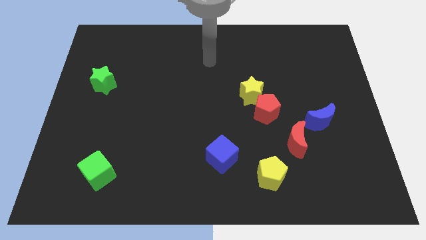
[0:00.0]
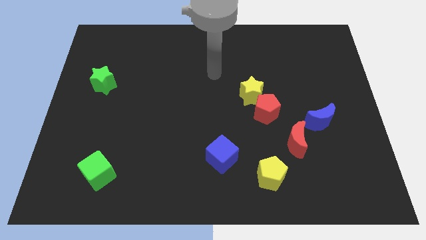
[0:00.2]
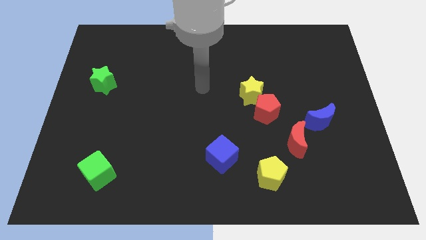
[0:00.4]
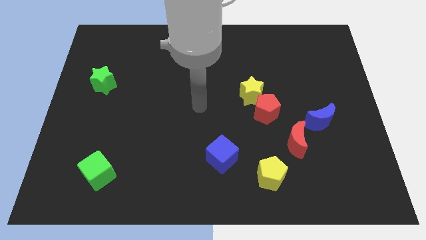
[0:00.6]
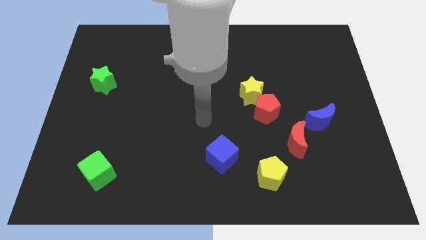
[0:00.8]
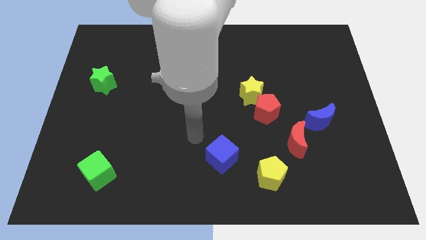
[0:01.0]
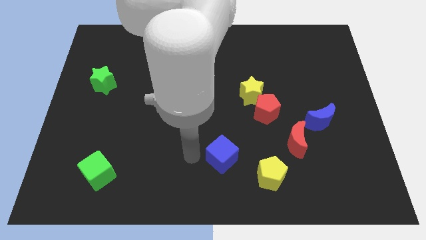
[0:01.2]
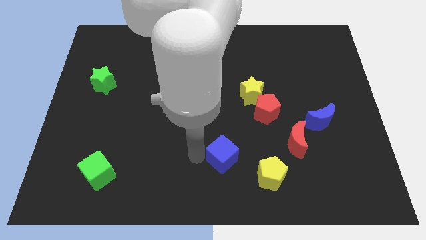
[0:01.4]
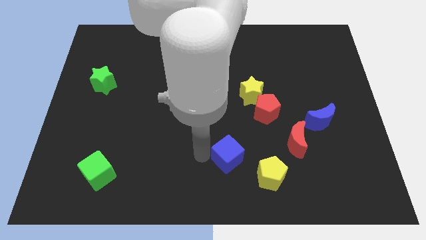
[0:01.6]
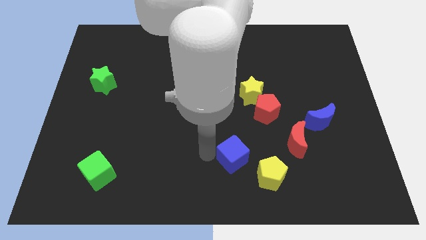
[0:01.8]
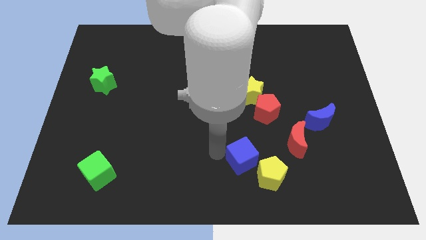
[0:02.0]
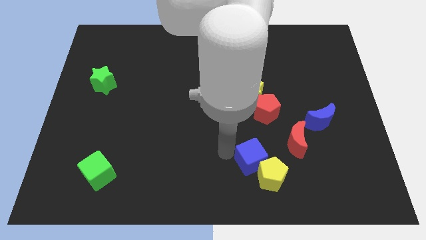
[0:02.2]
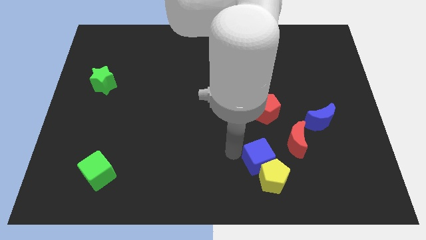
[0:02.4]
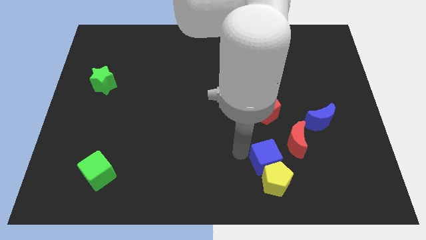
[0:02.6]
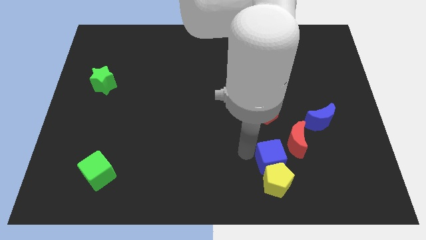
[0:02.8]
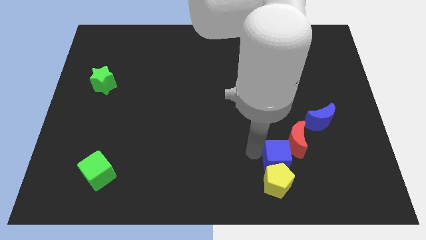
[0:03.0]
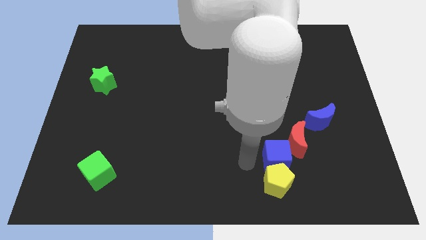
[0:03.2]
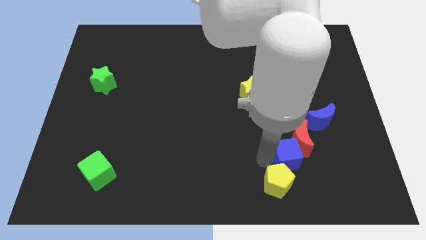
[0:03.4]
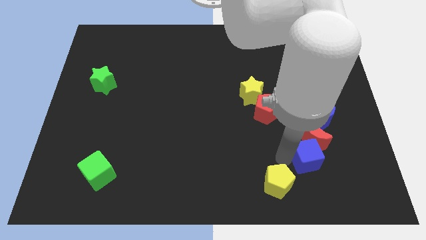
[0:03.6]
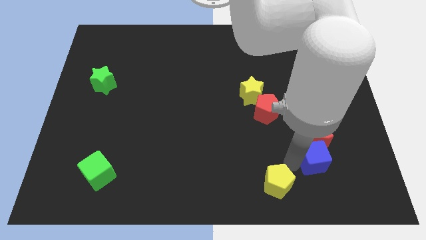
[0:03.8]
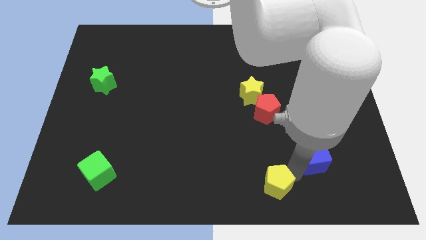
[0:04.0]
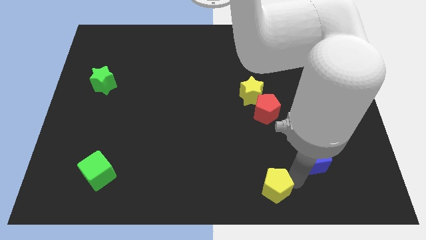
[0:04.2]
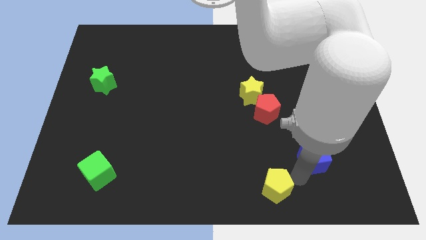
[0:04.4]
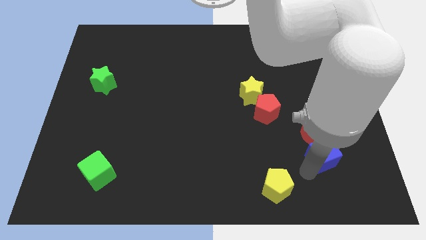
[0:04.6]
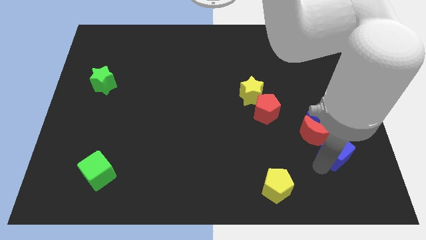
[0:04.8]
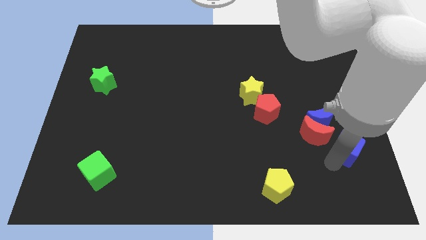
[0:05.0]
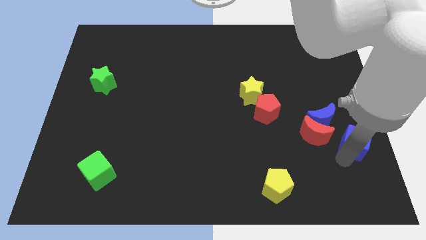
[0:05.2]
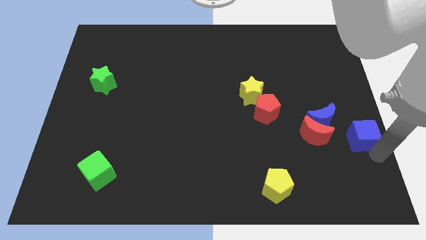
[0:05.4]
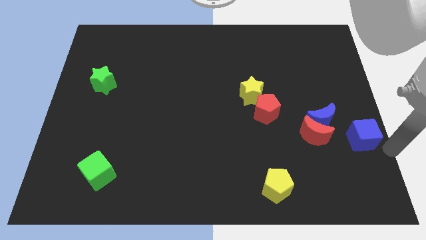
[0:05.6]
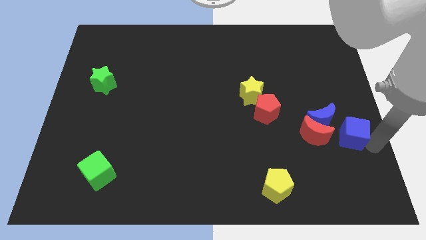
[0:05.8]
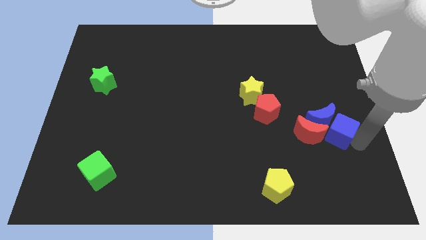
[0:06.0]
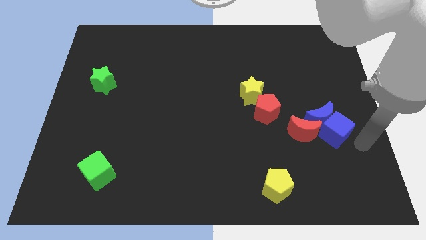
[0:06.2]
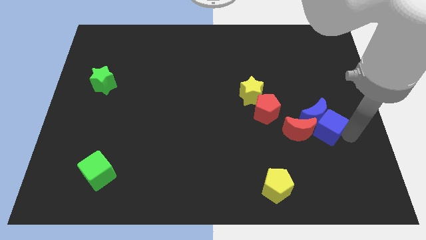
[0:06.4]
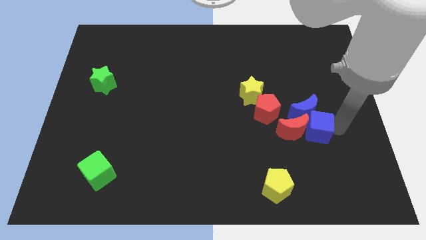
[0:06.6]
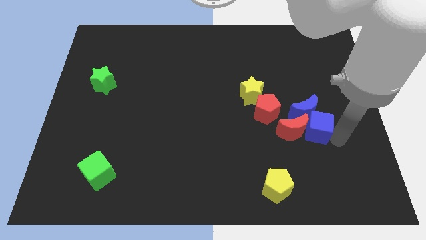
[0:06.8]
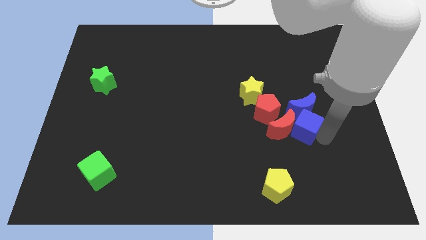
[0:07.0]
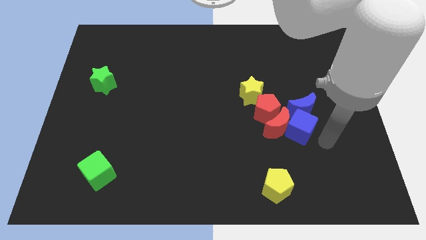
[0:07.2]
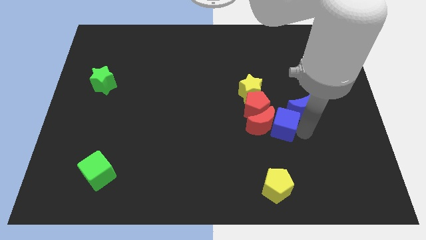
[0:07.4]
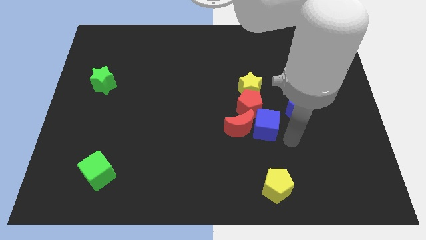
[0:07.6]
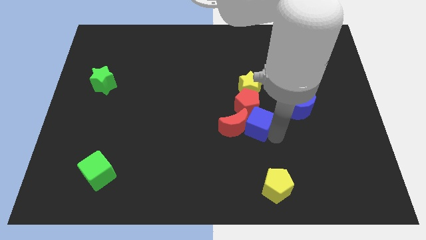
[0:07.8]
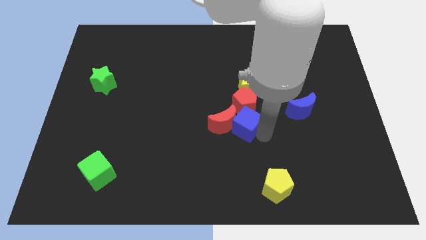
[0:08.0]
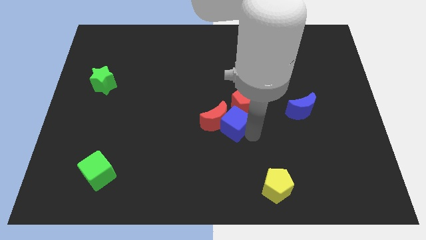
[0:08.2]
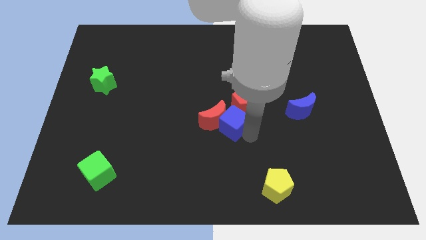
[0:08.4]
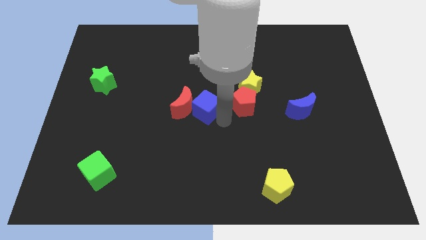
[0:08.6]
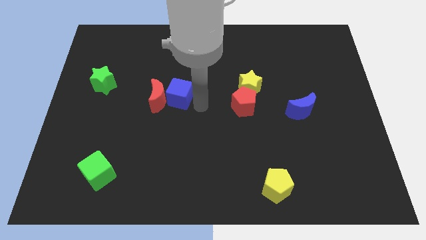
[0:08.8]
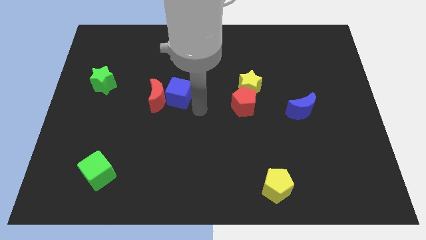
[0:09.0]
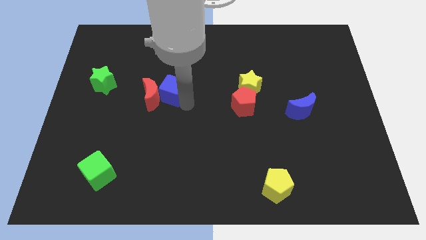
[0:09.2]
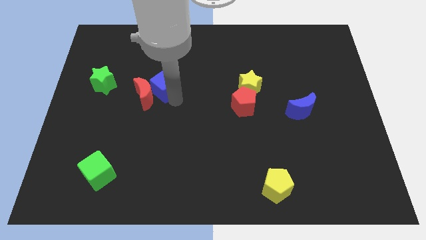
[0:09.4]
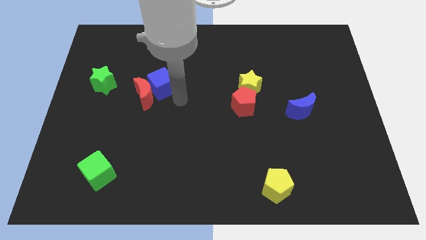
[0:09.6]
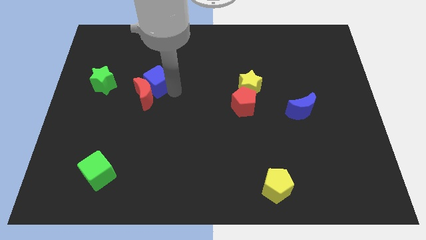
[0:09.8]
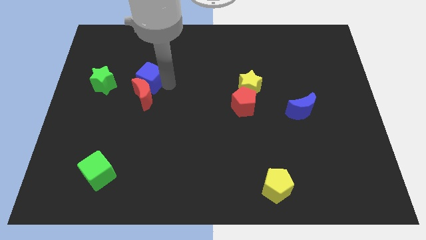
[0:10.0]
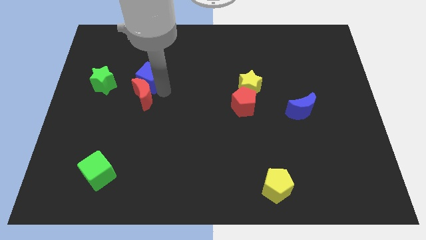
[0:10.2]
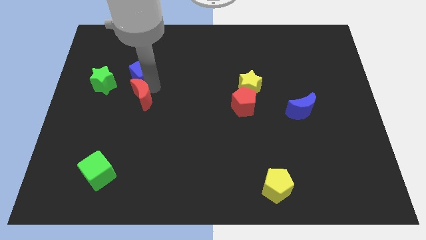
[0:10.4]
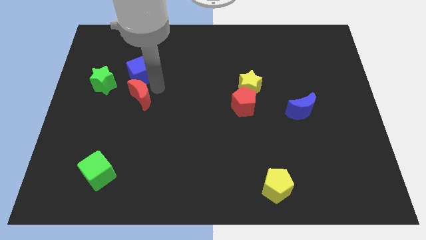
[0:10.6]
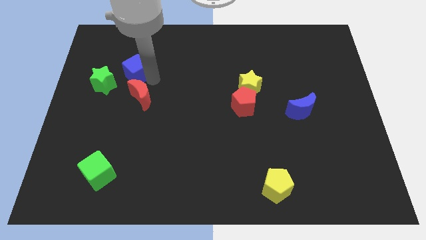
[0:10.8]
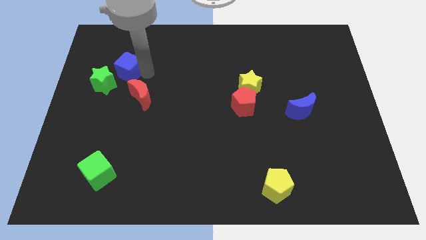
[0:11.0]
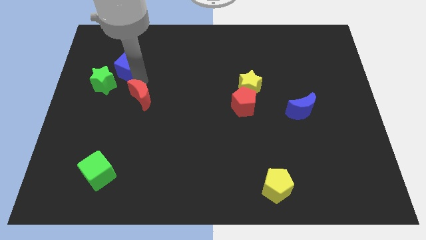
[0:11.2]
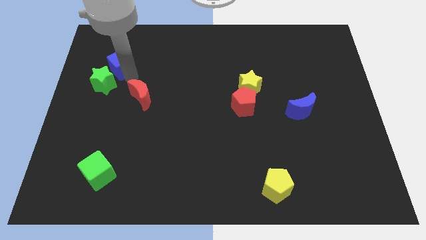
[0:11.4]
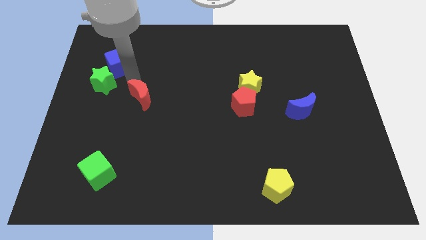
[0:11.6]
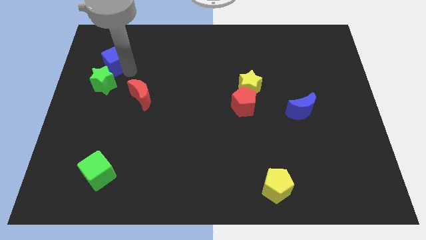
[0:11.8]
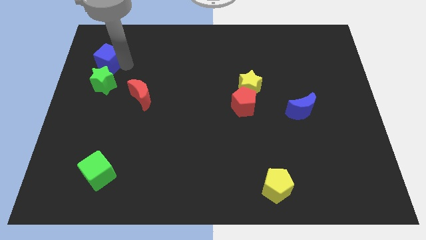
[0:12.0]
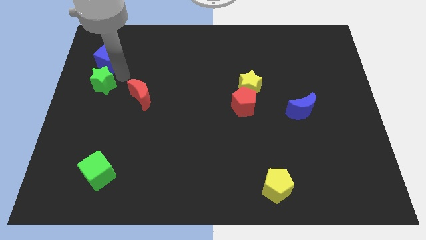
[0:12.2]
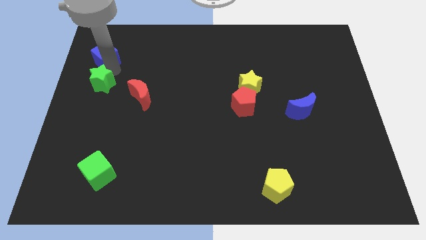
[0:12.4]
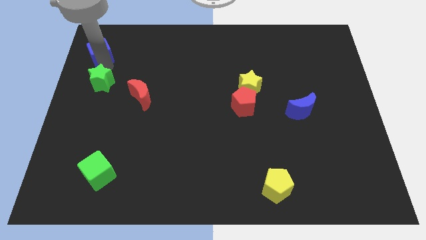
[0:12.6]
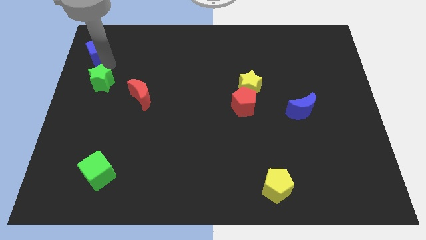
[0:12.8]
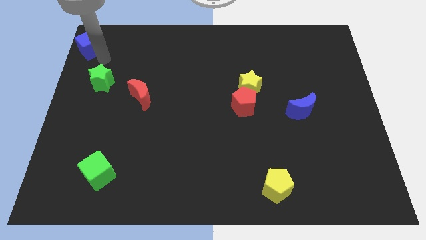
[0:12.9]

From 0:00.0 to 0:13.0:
push the blue cube to the top left corner
